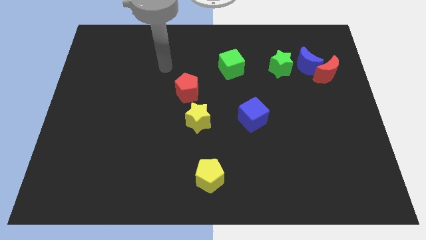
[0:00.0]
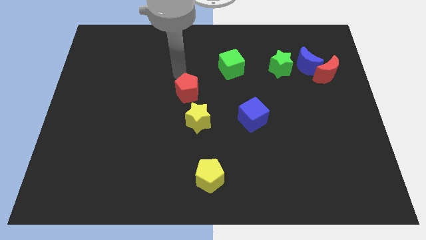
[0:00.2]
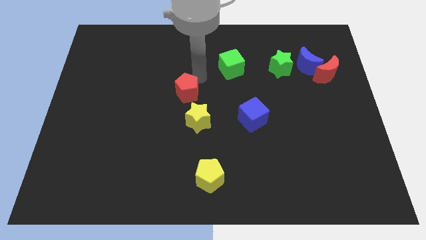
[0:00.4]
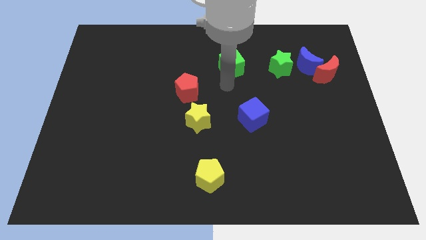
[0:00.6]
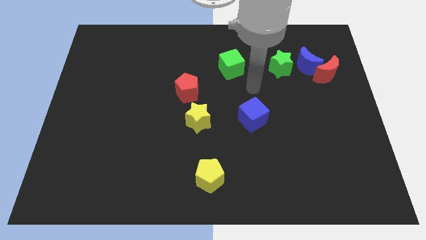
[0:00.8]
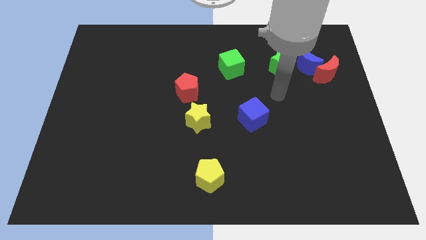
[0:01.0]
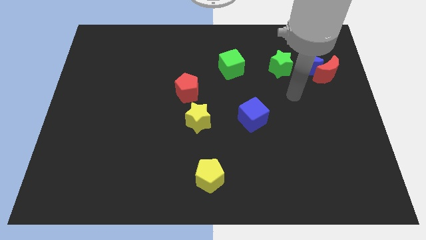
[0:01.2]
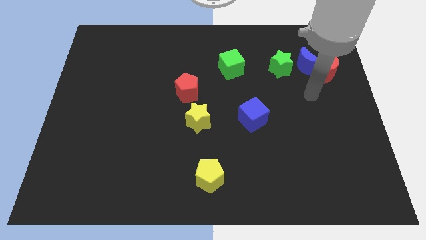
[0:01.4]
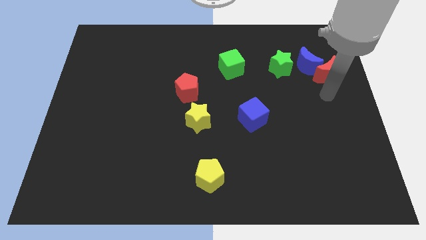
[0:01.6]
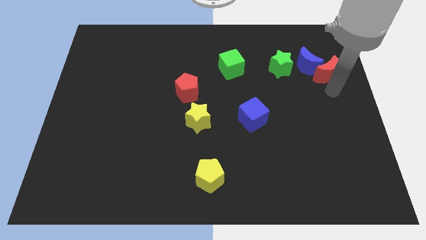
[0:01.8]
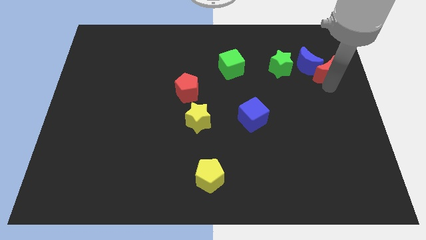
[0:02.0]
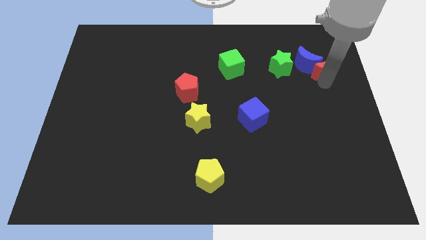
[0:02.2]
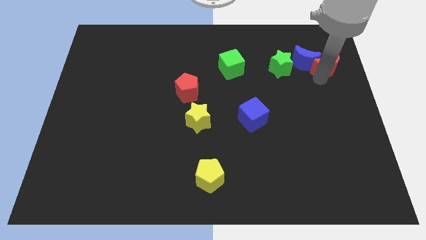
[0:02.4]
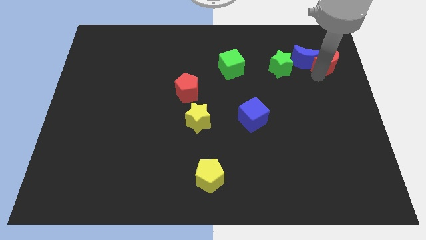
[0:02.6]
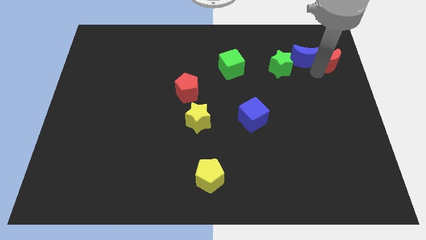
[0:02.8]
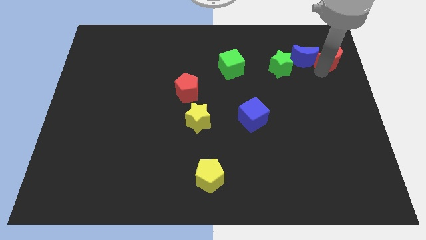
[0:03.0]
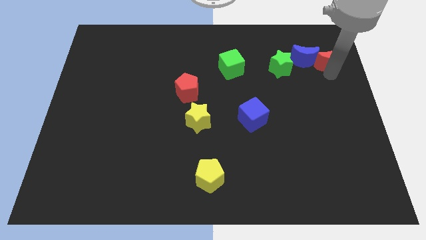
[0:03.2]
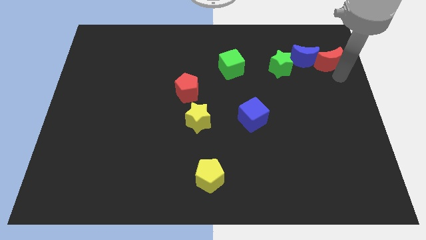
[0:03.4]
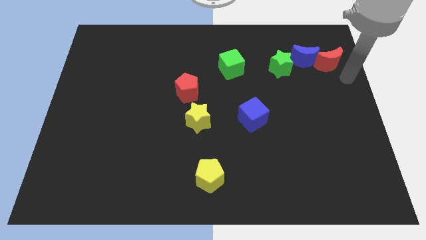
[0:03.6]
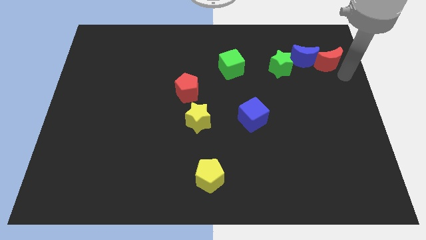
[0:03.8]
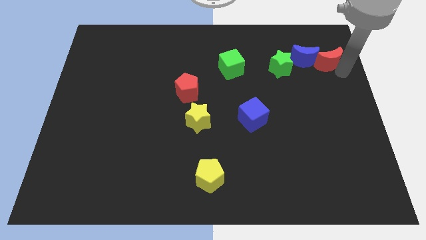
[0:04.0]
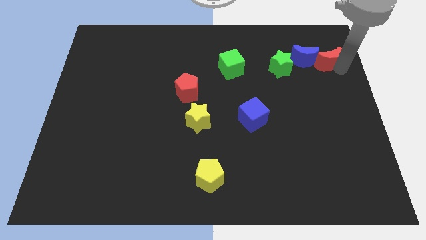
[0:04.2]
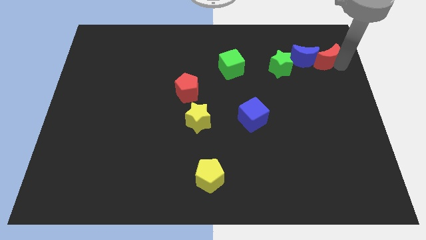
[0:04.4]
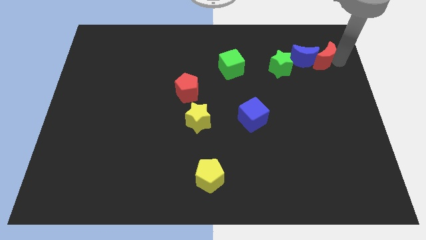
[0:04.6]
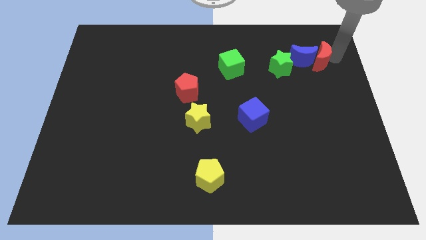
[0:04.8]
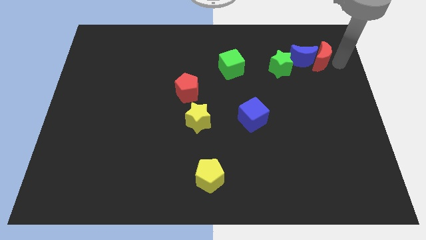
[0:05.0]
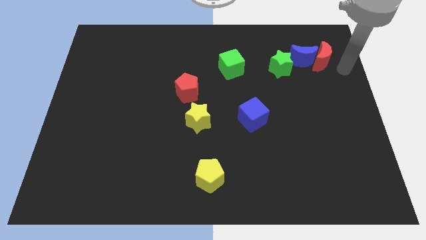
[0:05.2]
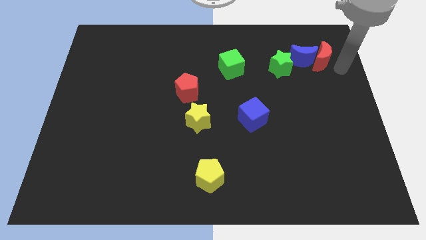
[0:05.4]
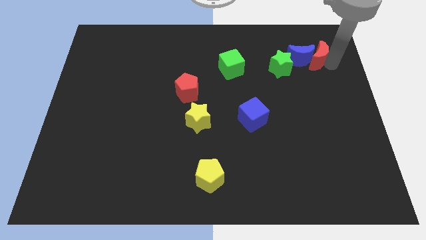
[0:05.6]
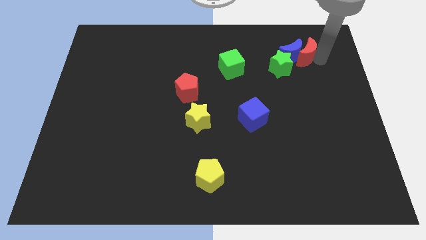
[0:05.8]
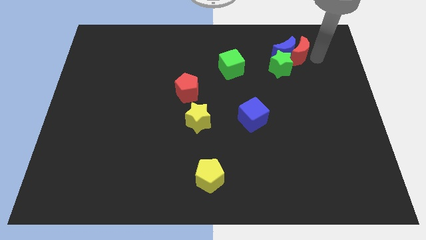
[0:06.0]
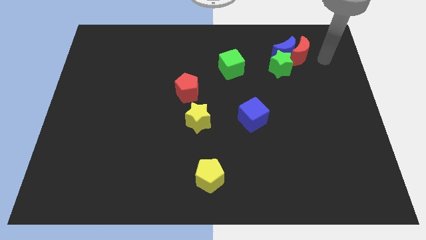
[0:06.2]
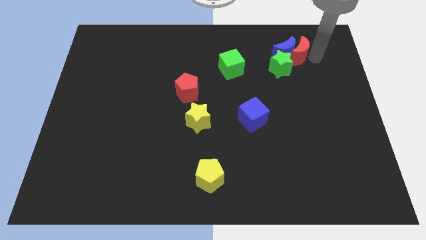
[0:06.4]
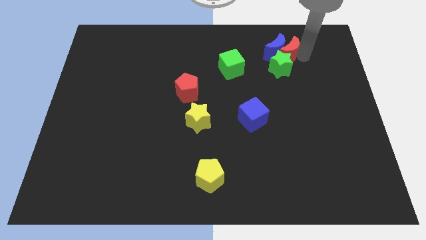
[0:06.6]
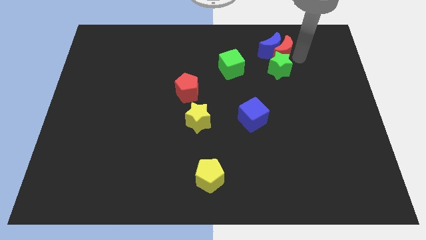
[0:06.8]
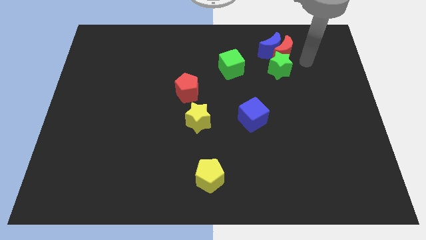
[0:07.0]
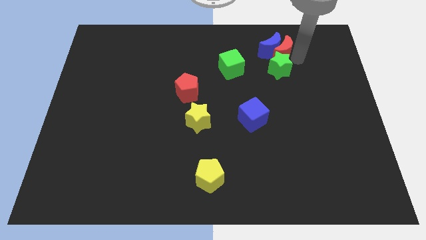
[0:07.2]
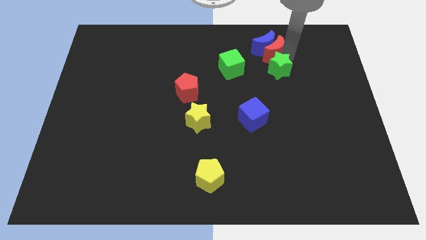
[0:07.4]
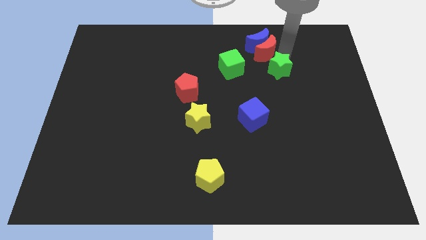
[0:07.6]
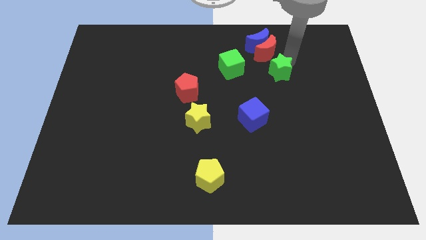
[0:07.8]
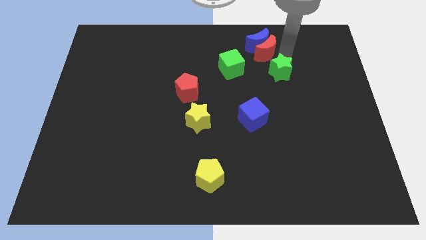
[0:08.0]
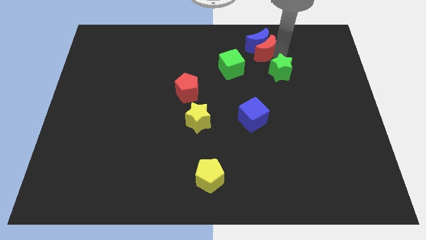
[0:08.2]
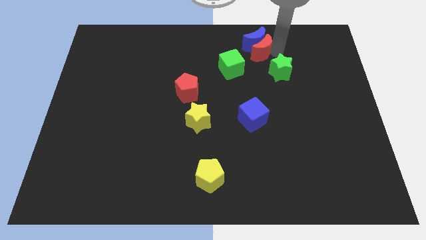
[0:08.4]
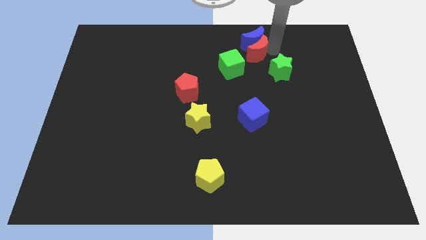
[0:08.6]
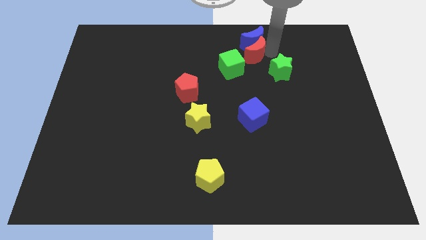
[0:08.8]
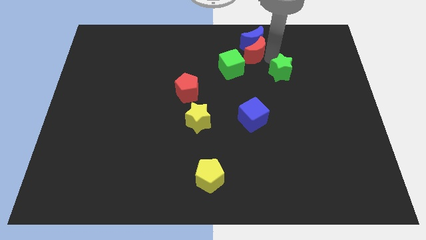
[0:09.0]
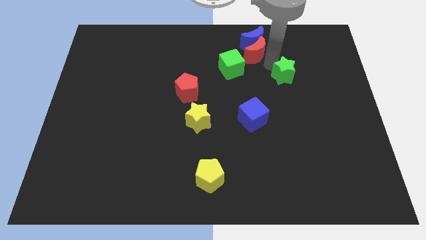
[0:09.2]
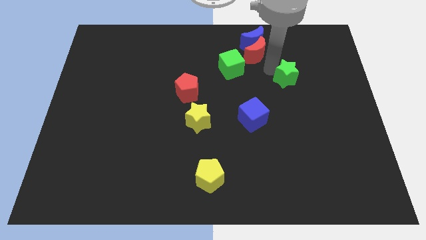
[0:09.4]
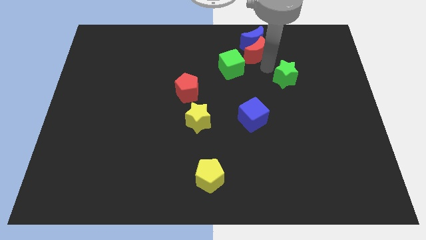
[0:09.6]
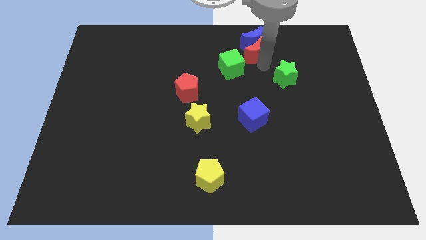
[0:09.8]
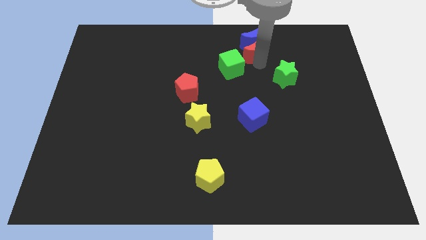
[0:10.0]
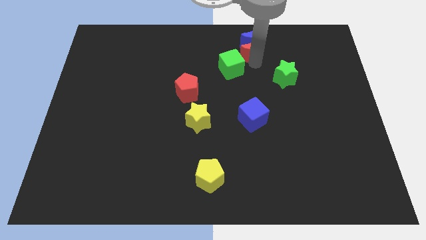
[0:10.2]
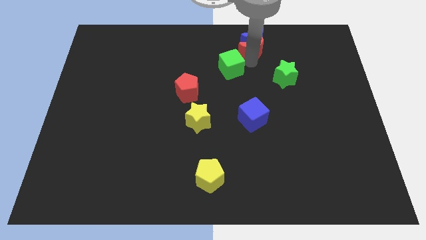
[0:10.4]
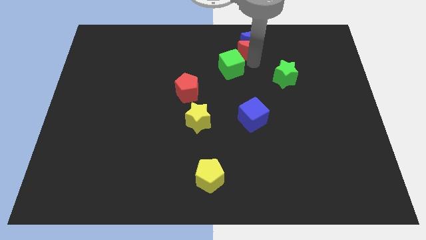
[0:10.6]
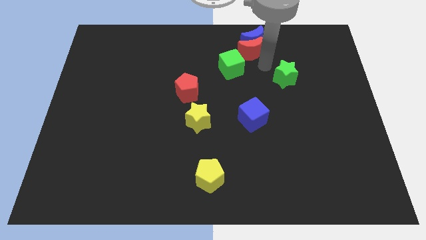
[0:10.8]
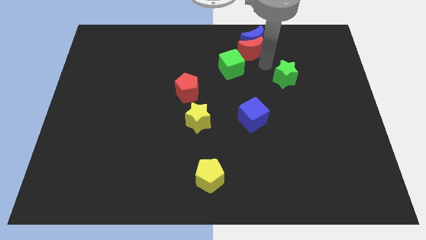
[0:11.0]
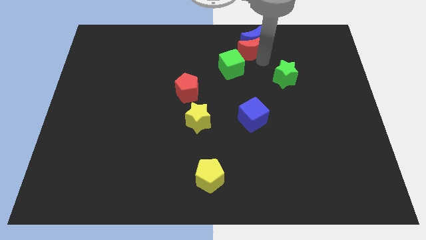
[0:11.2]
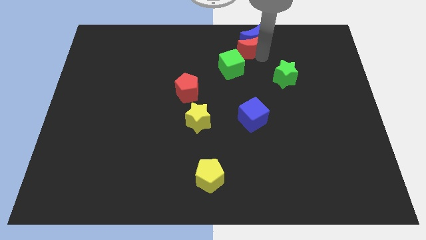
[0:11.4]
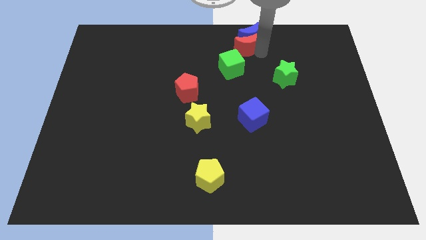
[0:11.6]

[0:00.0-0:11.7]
push the red moon to the towards your base

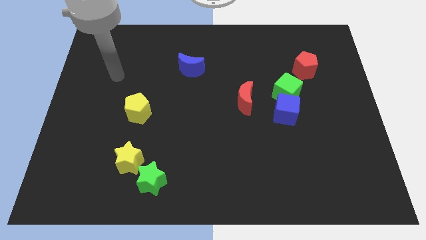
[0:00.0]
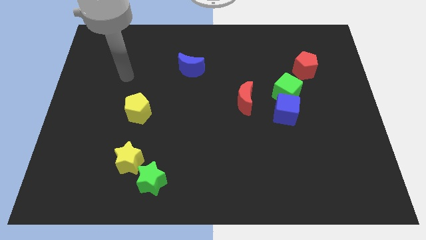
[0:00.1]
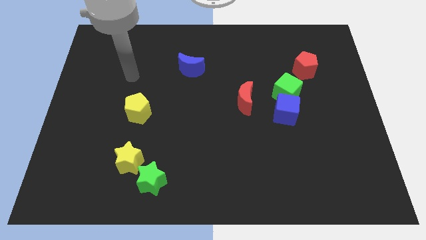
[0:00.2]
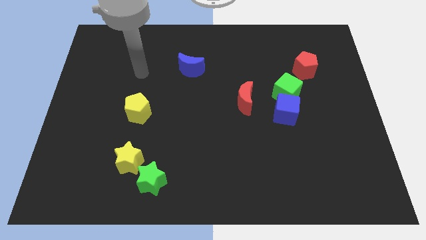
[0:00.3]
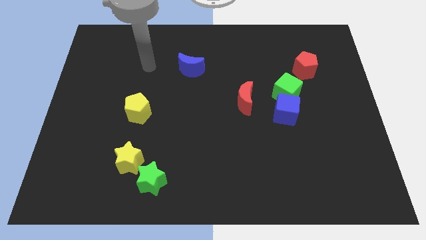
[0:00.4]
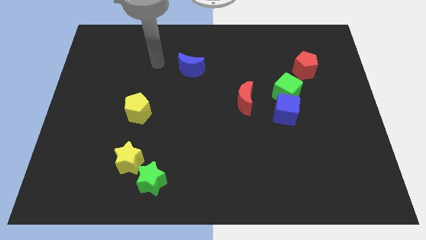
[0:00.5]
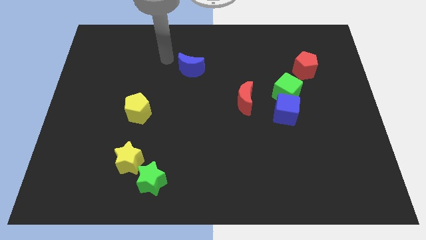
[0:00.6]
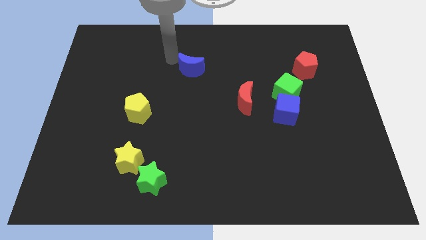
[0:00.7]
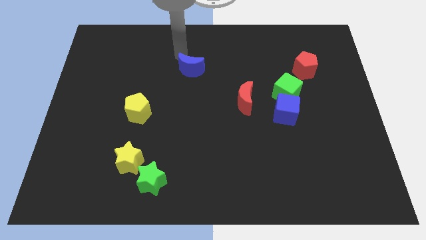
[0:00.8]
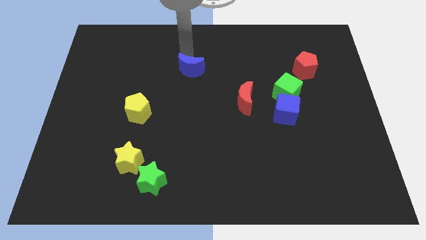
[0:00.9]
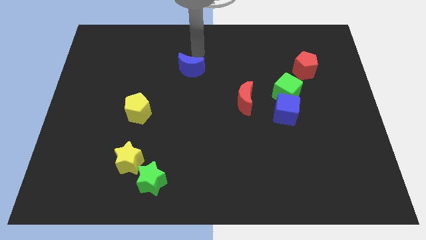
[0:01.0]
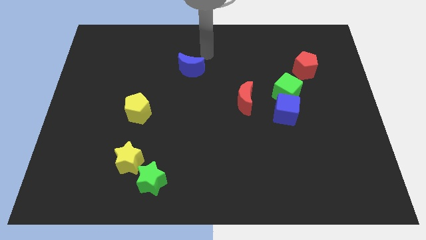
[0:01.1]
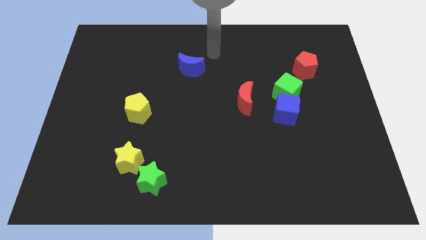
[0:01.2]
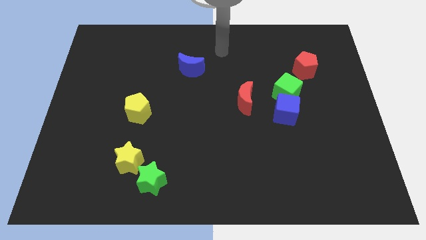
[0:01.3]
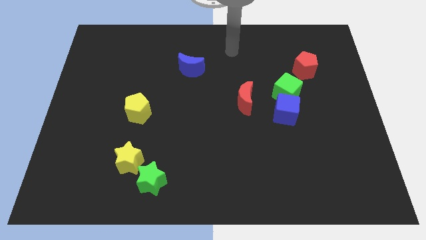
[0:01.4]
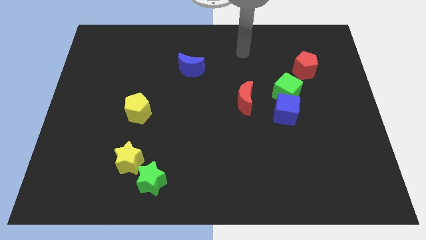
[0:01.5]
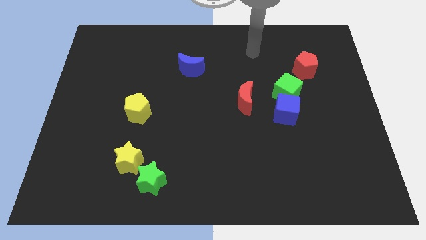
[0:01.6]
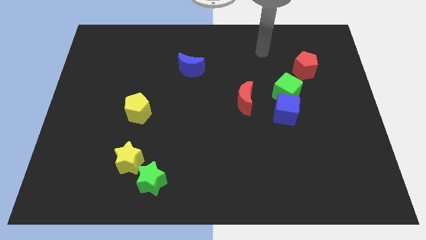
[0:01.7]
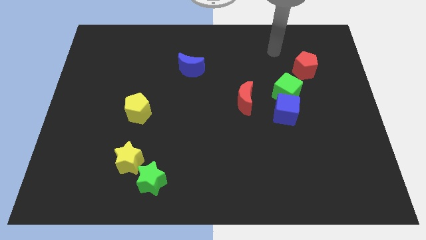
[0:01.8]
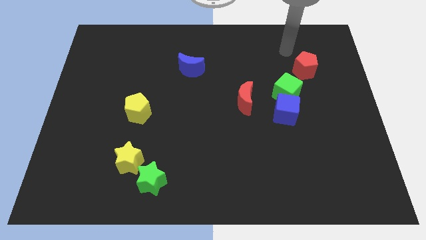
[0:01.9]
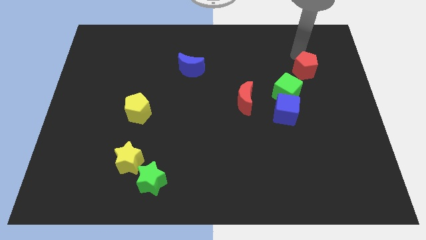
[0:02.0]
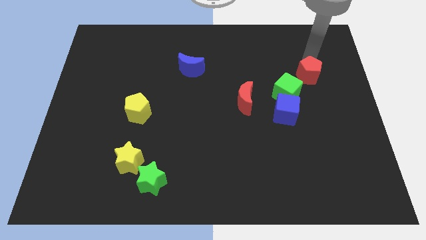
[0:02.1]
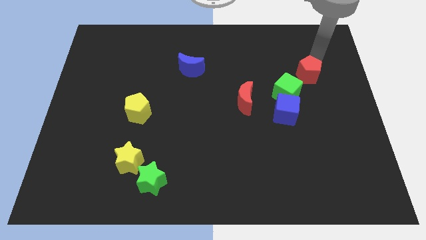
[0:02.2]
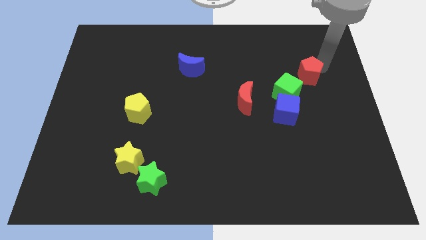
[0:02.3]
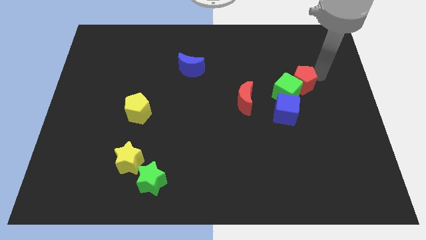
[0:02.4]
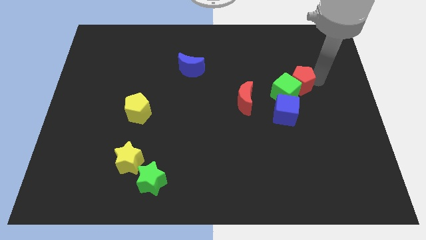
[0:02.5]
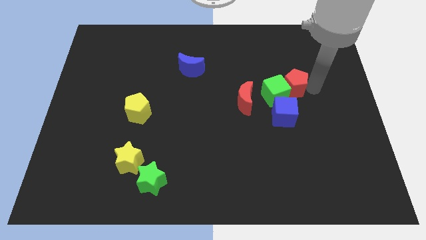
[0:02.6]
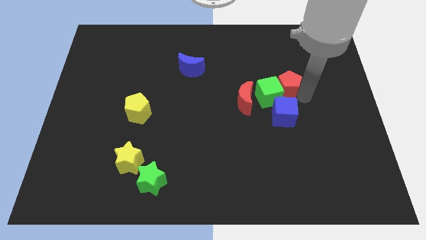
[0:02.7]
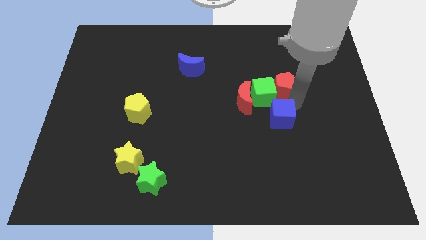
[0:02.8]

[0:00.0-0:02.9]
push the green cube to the middle
